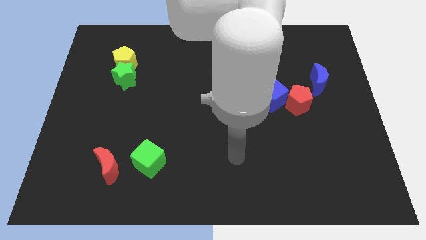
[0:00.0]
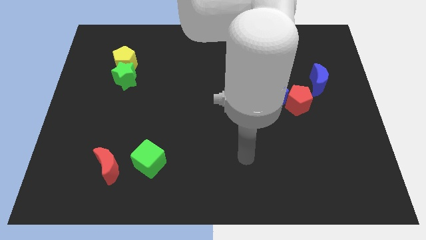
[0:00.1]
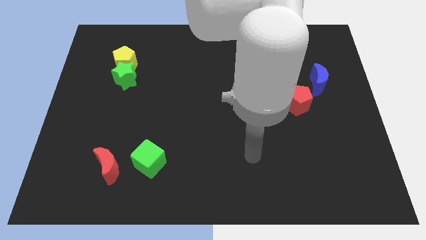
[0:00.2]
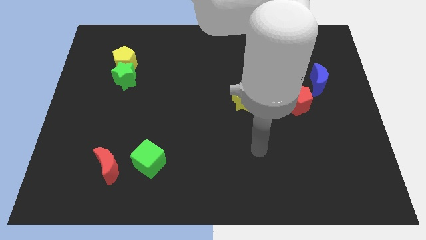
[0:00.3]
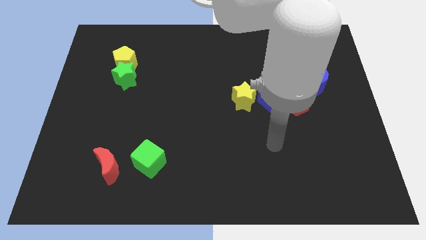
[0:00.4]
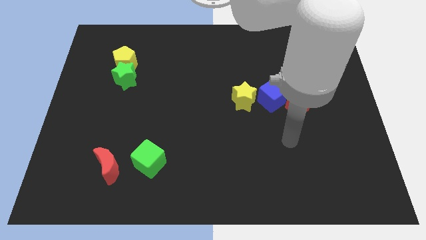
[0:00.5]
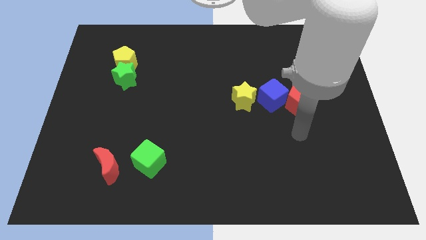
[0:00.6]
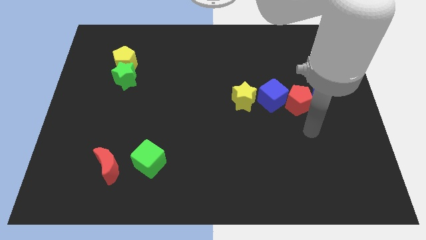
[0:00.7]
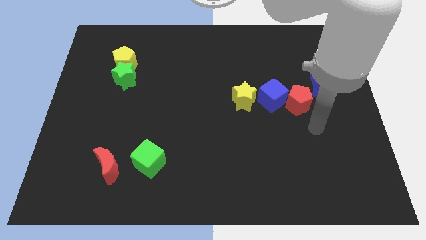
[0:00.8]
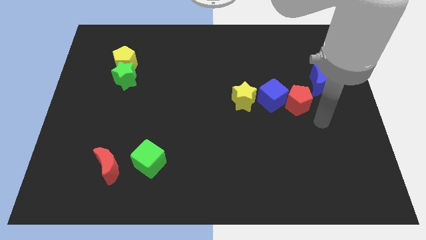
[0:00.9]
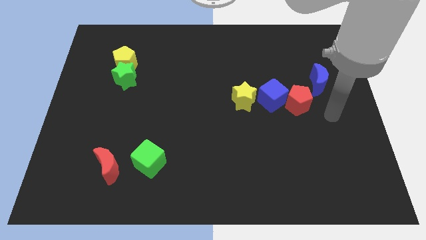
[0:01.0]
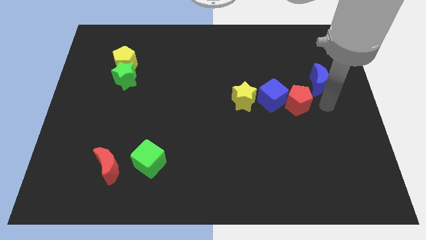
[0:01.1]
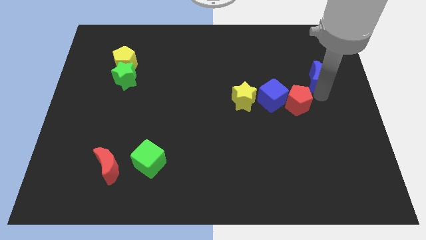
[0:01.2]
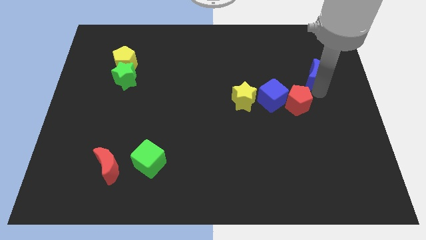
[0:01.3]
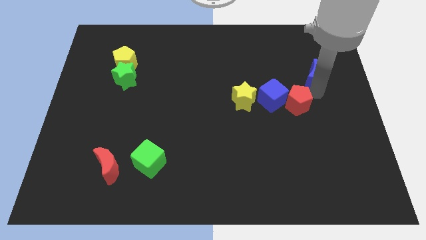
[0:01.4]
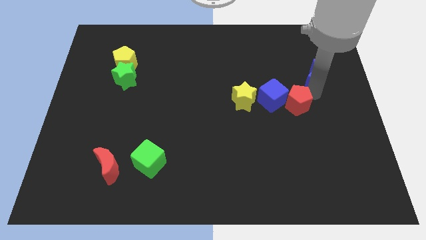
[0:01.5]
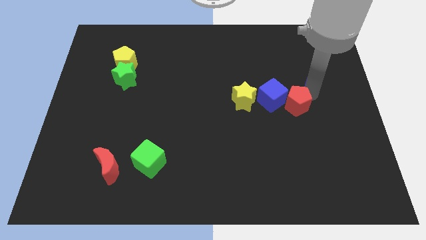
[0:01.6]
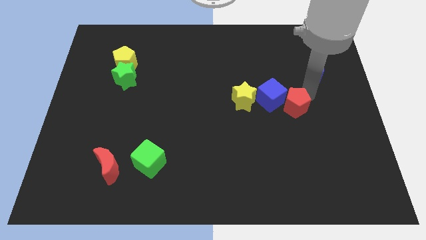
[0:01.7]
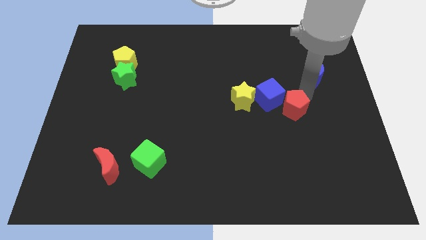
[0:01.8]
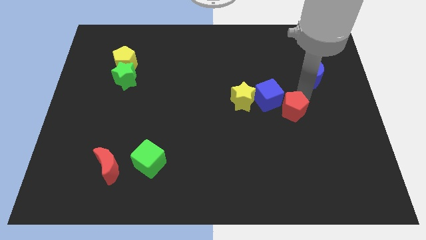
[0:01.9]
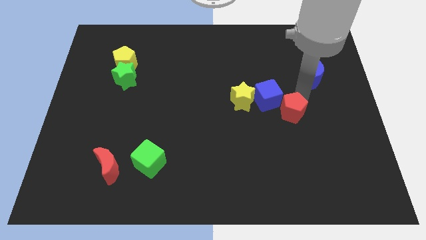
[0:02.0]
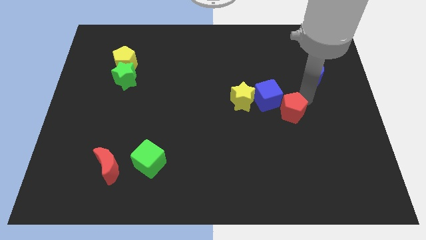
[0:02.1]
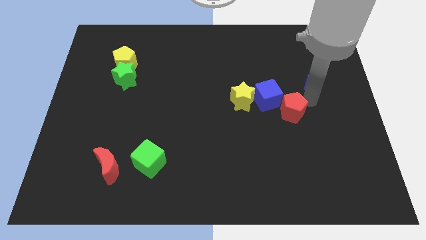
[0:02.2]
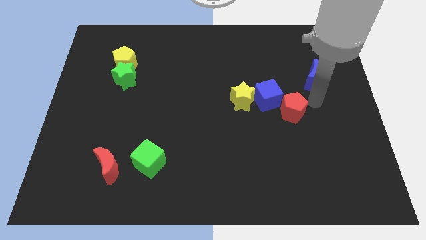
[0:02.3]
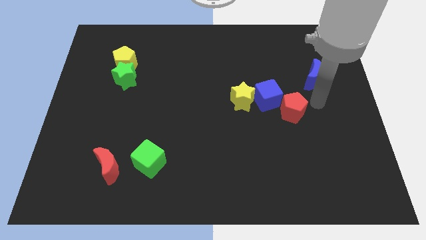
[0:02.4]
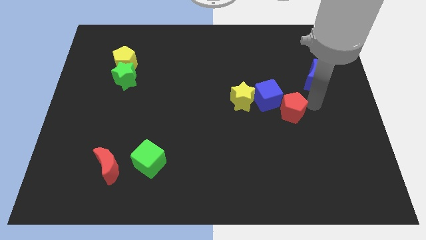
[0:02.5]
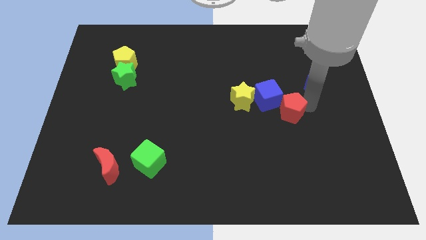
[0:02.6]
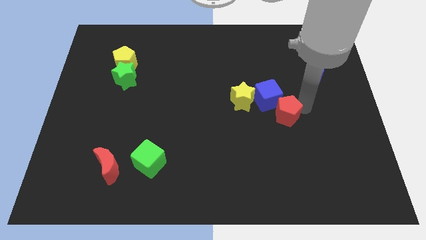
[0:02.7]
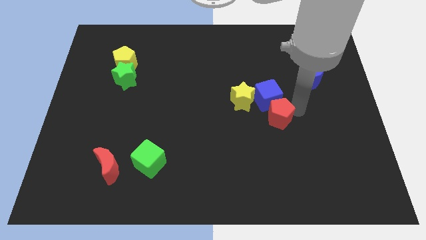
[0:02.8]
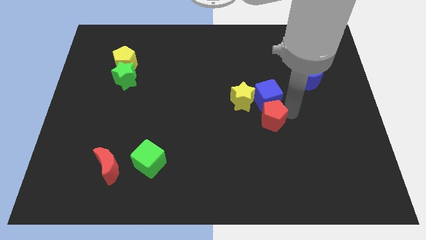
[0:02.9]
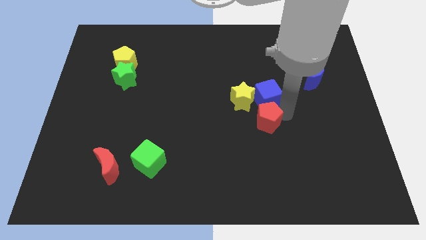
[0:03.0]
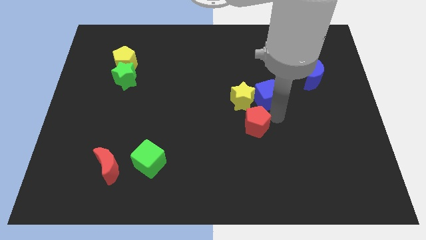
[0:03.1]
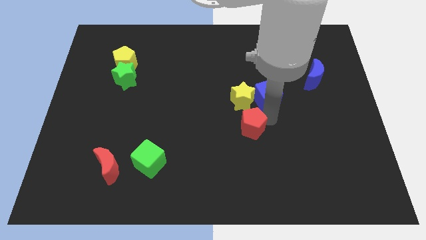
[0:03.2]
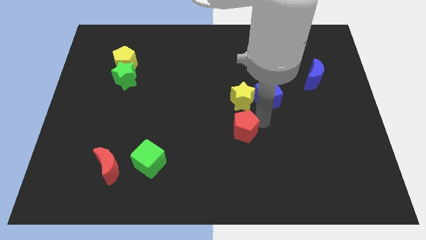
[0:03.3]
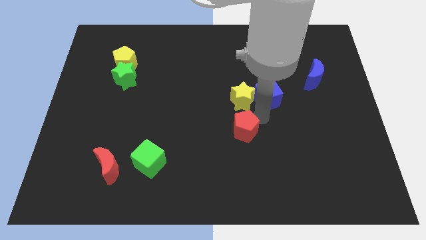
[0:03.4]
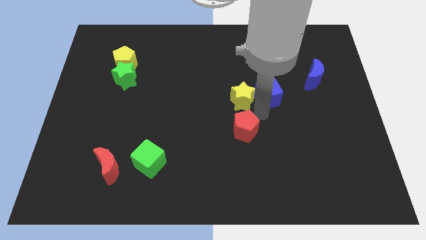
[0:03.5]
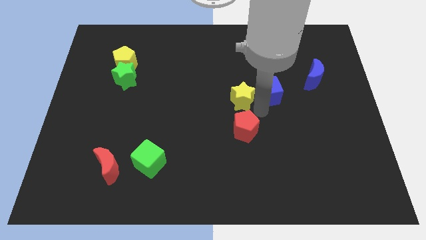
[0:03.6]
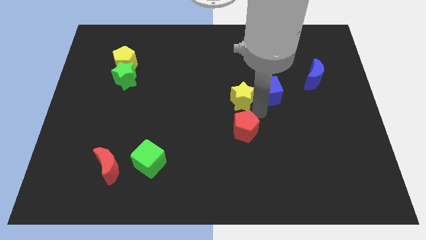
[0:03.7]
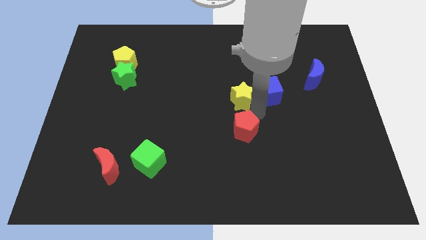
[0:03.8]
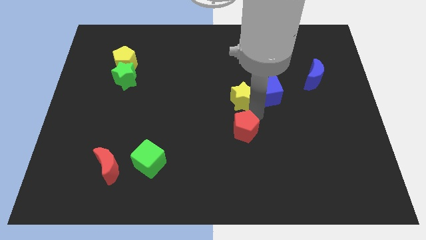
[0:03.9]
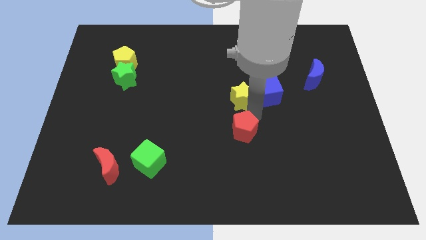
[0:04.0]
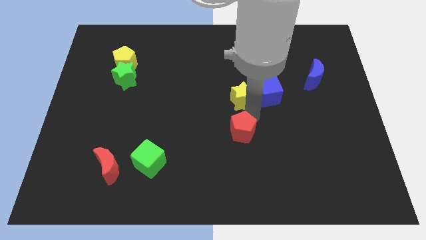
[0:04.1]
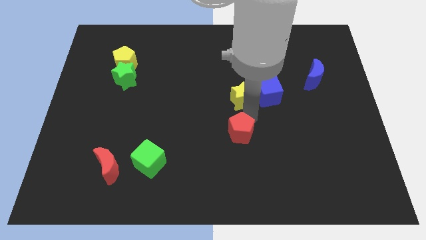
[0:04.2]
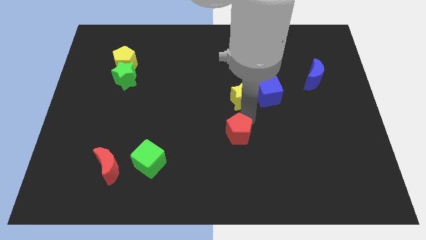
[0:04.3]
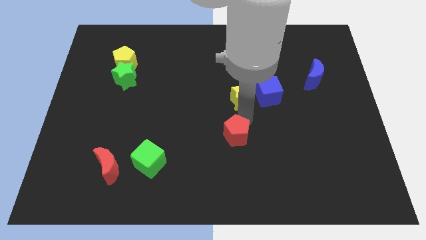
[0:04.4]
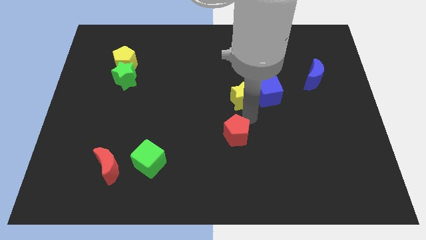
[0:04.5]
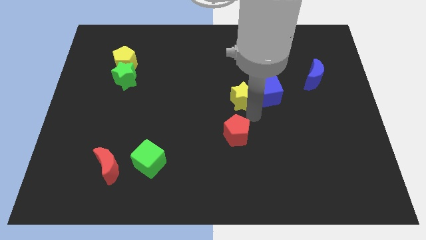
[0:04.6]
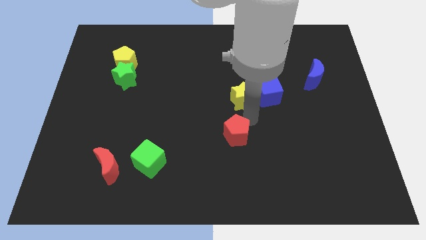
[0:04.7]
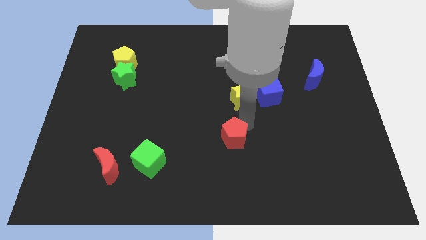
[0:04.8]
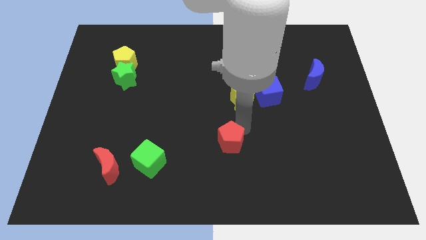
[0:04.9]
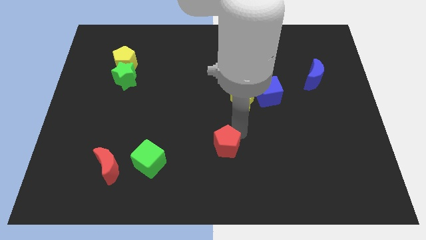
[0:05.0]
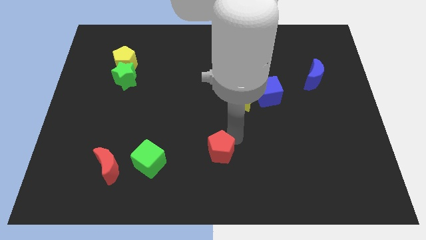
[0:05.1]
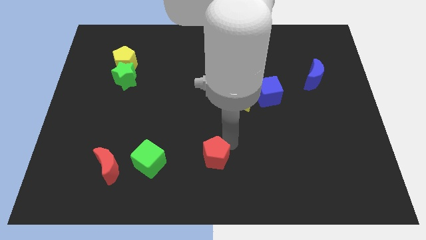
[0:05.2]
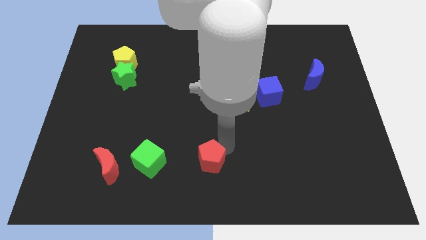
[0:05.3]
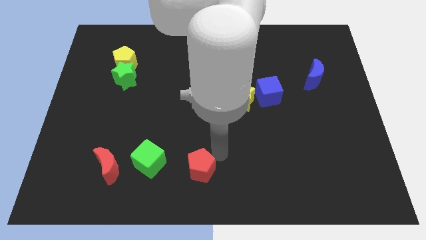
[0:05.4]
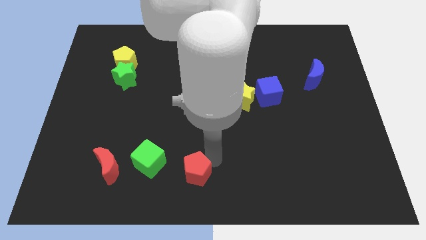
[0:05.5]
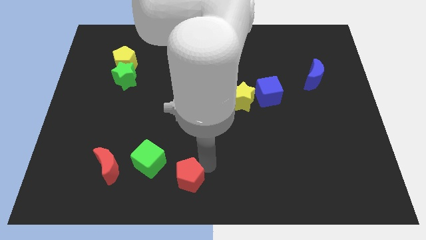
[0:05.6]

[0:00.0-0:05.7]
push the red pentagon diagonally down and to the right of the green cube

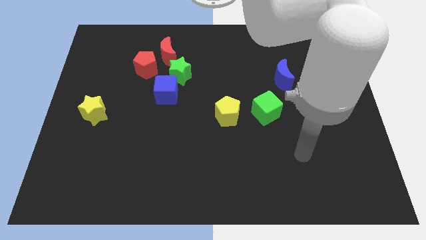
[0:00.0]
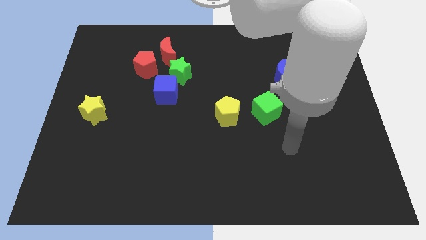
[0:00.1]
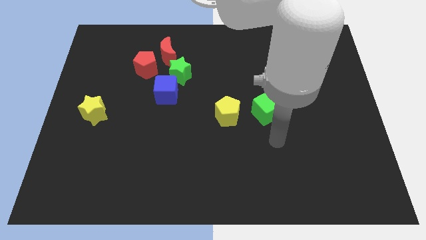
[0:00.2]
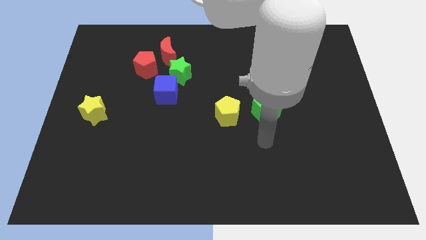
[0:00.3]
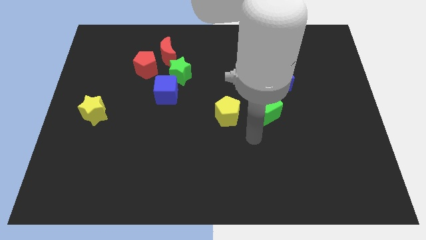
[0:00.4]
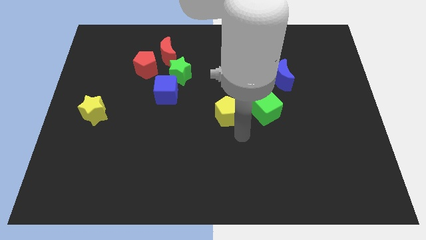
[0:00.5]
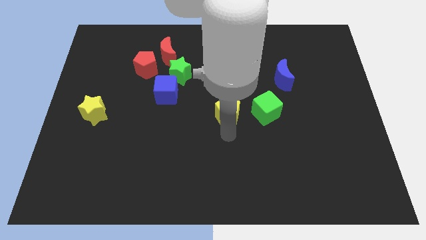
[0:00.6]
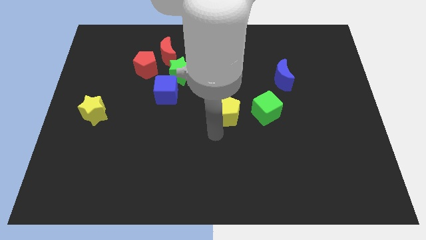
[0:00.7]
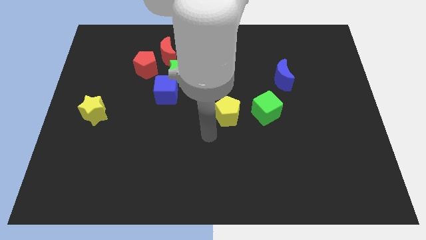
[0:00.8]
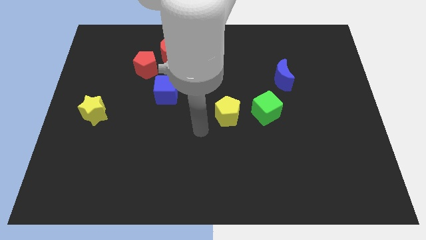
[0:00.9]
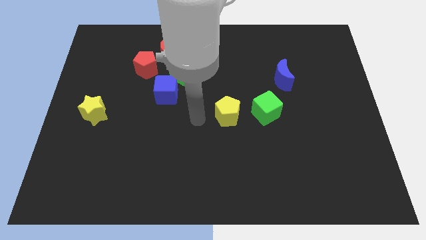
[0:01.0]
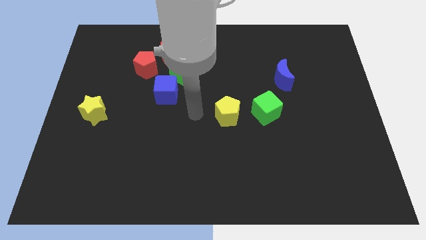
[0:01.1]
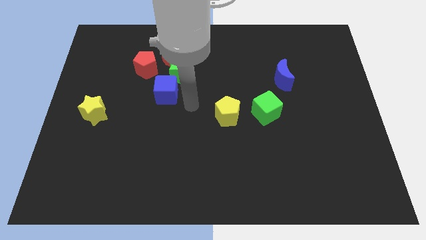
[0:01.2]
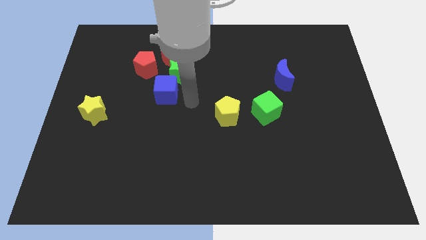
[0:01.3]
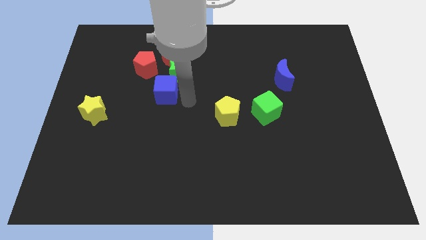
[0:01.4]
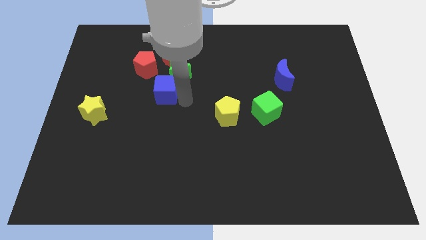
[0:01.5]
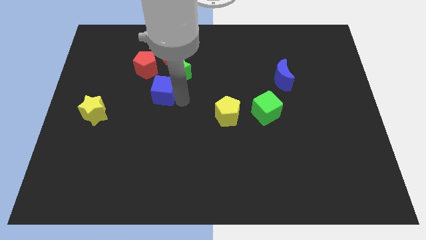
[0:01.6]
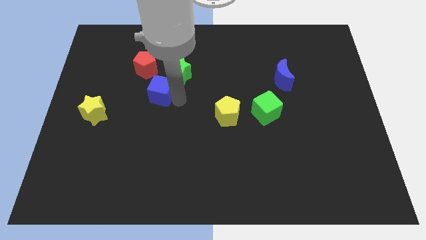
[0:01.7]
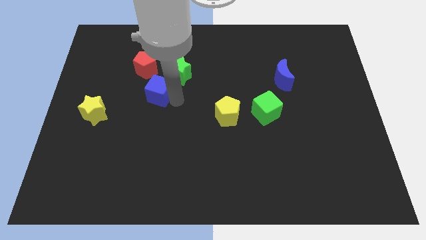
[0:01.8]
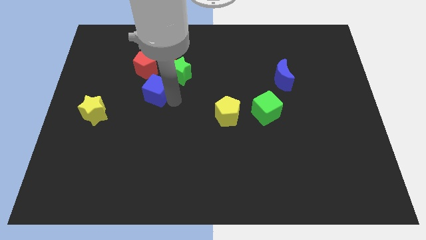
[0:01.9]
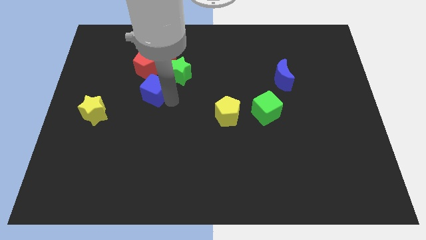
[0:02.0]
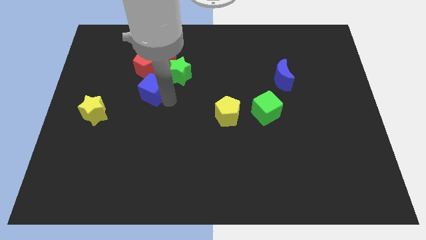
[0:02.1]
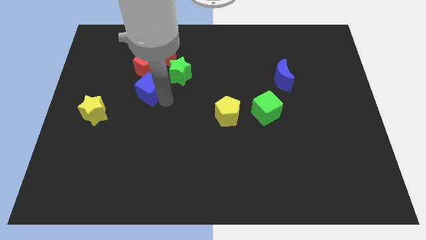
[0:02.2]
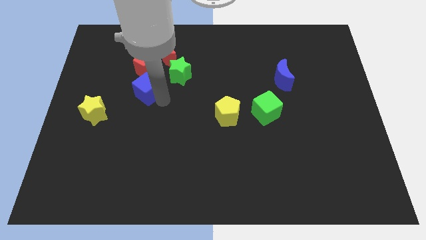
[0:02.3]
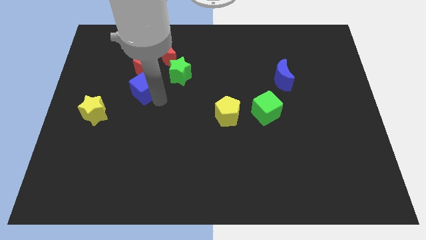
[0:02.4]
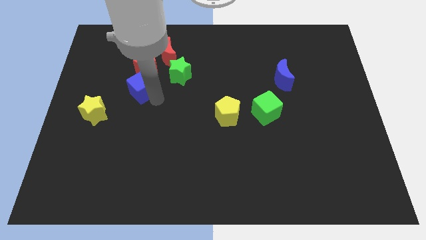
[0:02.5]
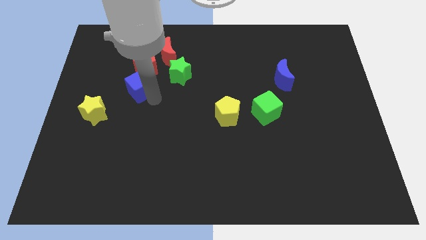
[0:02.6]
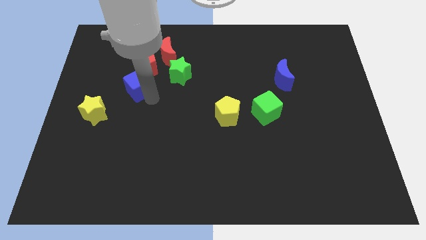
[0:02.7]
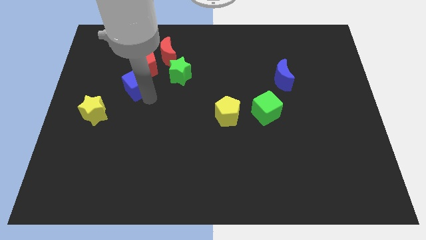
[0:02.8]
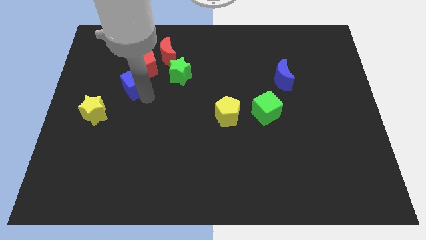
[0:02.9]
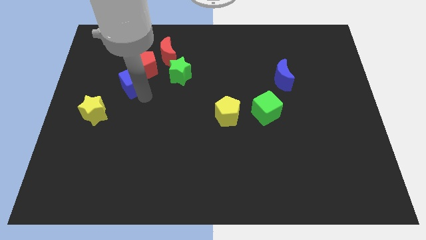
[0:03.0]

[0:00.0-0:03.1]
push the blue cube diagonally down and to the left of the red moon
